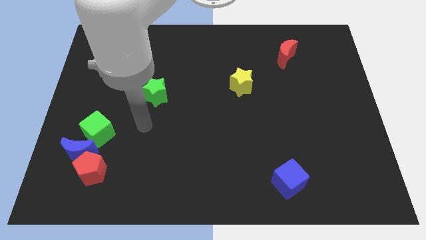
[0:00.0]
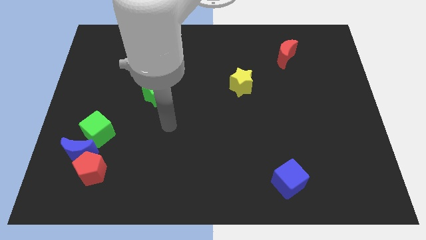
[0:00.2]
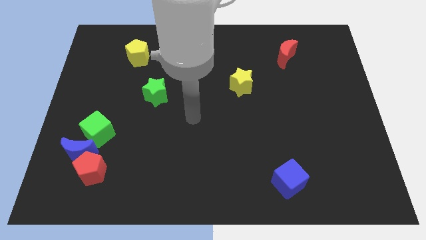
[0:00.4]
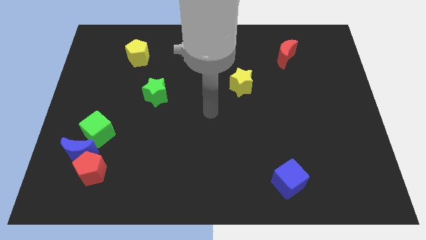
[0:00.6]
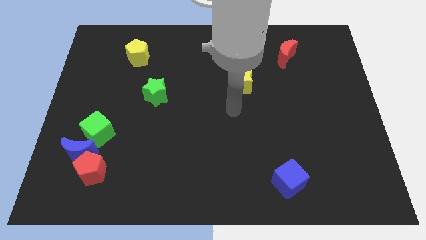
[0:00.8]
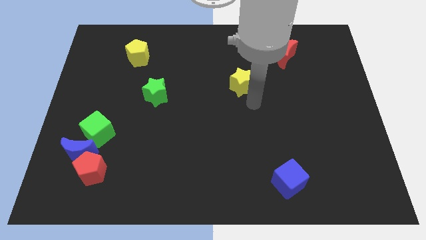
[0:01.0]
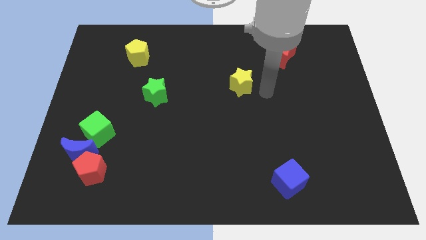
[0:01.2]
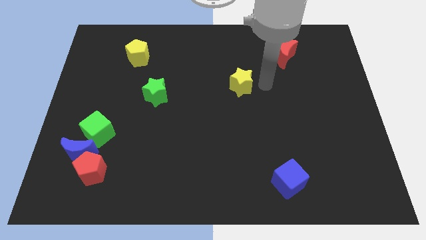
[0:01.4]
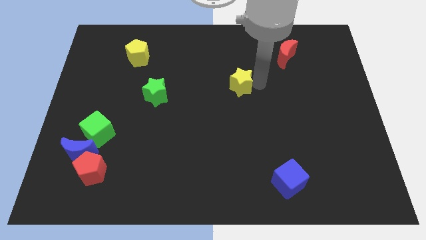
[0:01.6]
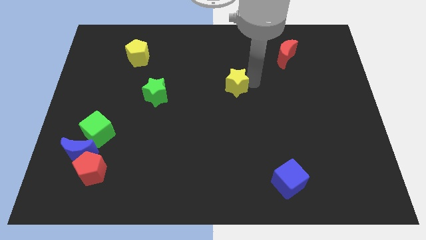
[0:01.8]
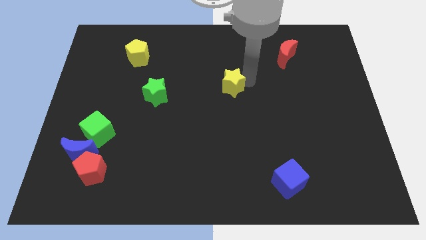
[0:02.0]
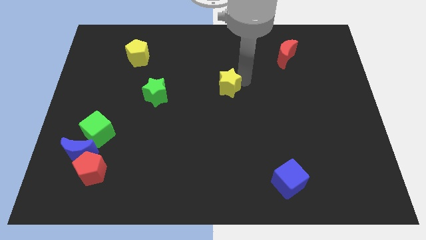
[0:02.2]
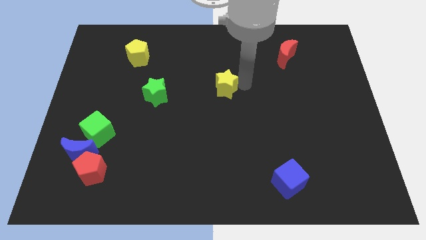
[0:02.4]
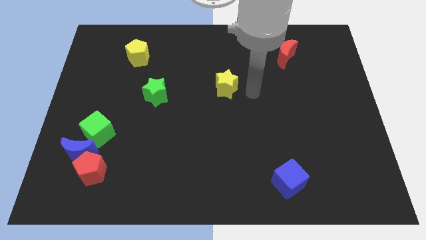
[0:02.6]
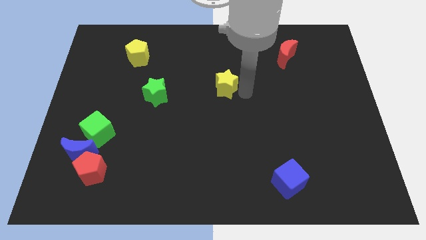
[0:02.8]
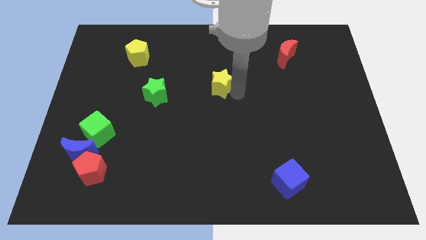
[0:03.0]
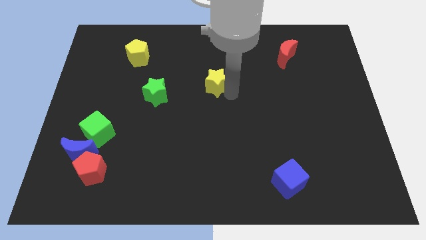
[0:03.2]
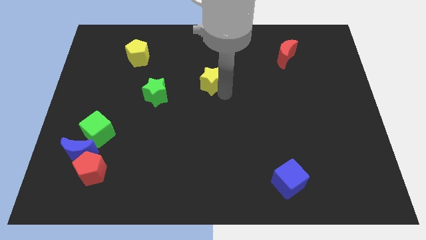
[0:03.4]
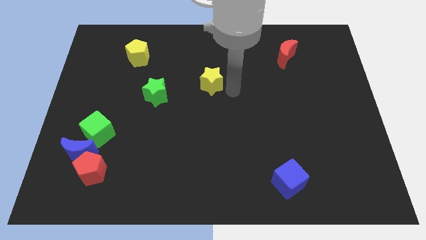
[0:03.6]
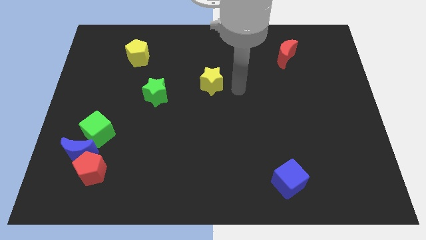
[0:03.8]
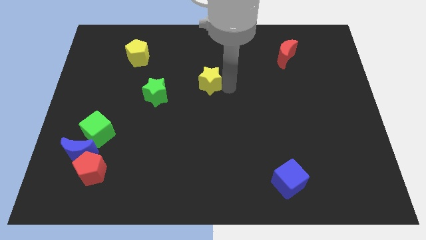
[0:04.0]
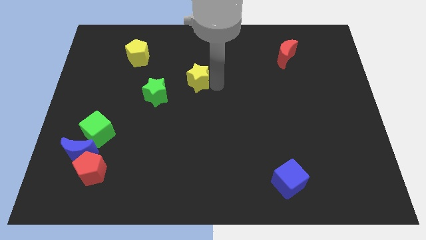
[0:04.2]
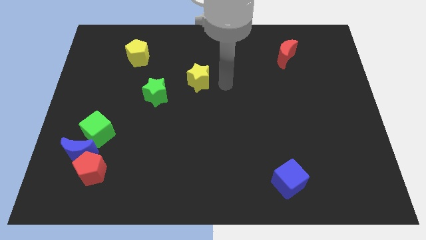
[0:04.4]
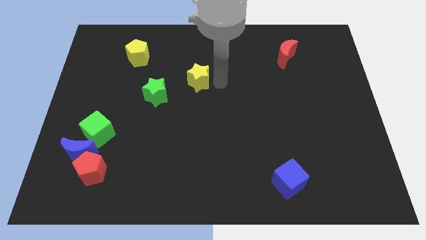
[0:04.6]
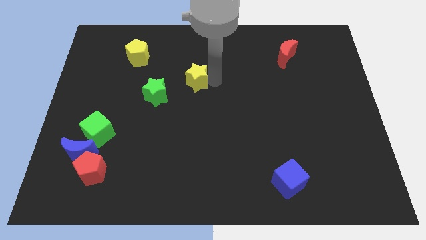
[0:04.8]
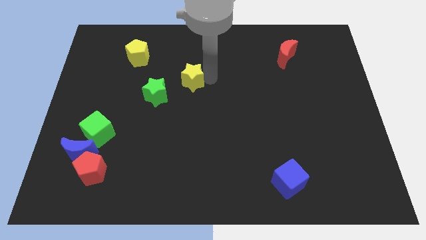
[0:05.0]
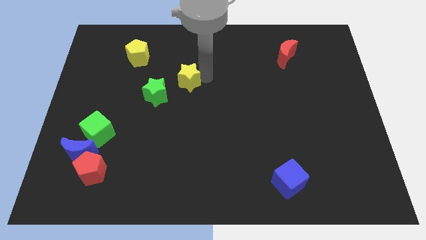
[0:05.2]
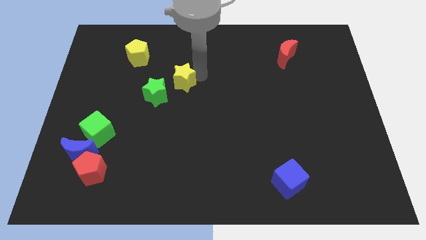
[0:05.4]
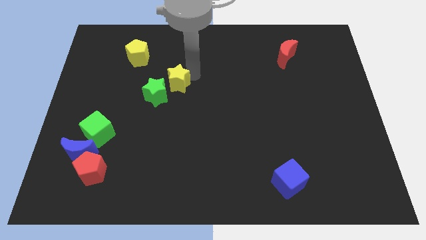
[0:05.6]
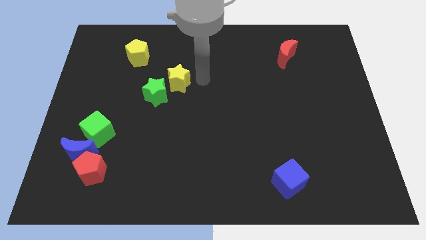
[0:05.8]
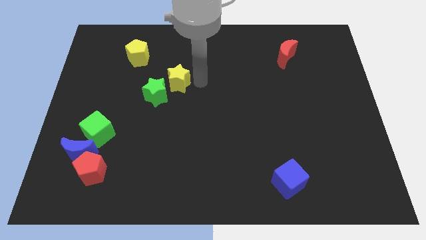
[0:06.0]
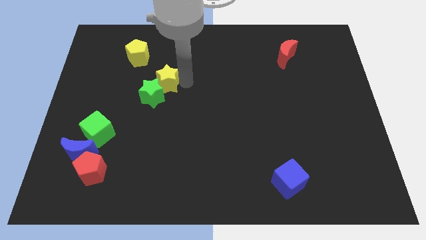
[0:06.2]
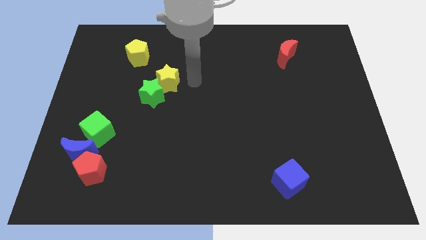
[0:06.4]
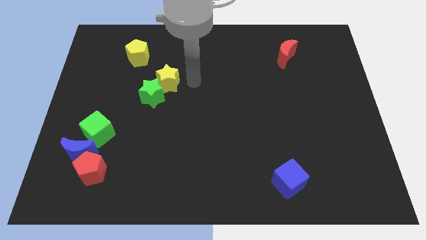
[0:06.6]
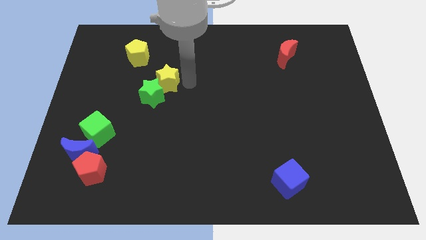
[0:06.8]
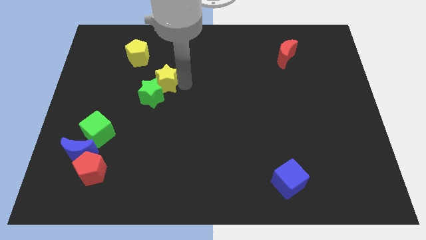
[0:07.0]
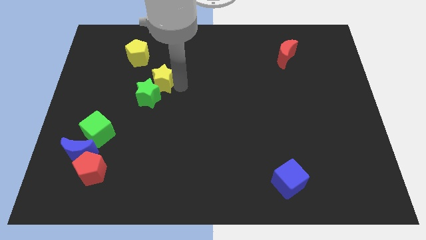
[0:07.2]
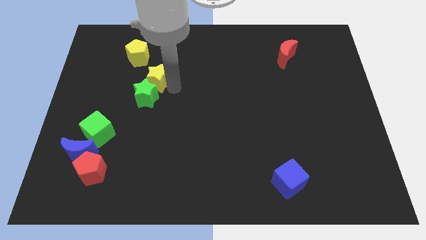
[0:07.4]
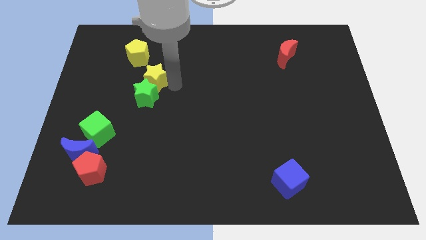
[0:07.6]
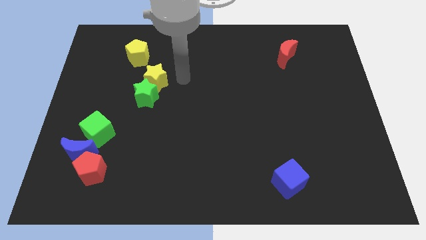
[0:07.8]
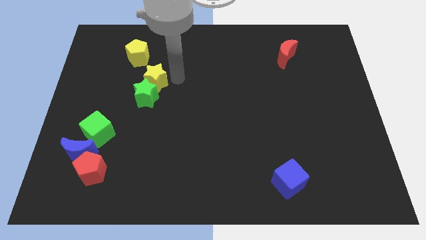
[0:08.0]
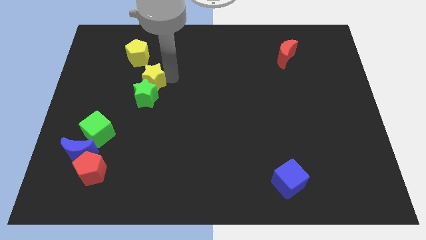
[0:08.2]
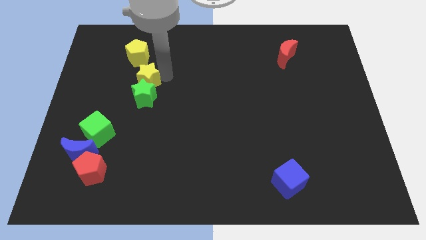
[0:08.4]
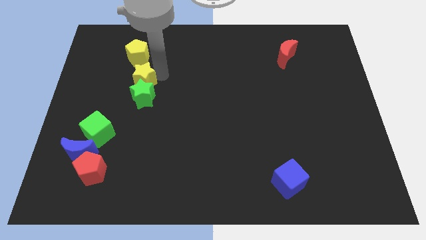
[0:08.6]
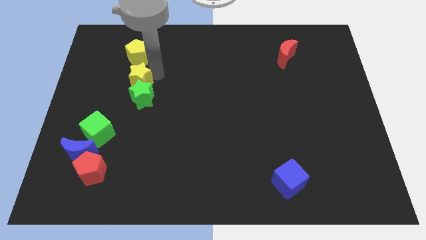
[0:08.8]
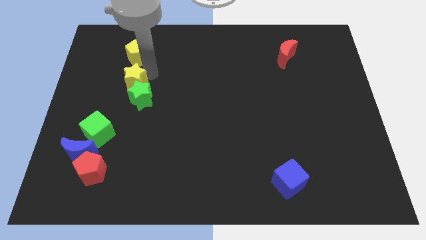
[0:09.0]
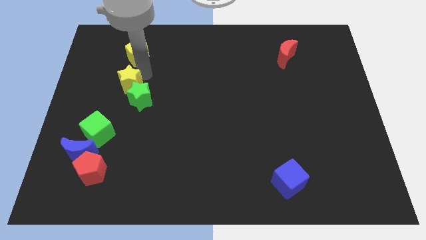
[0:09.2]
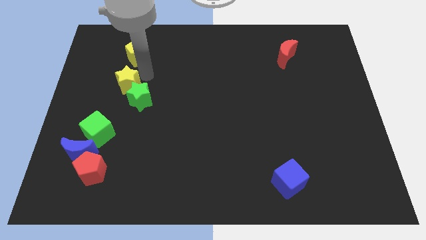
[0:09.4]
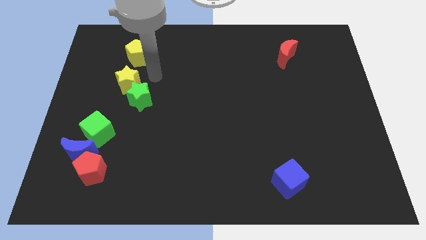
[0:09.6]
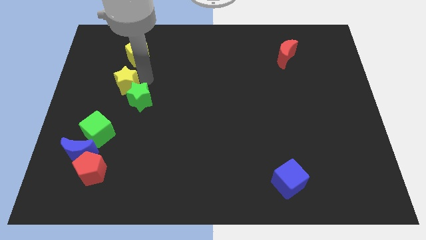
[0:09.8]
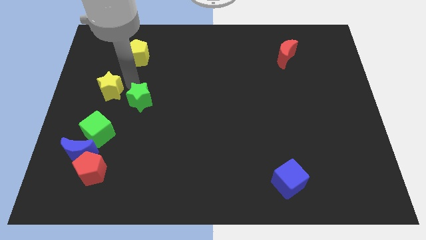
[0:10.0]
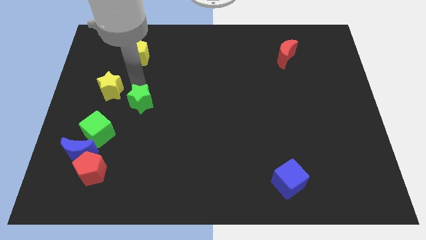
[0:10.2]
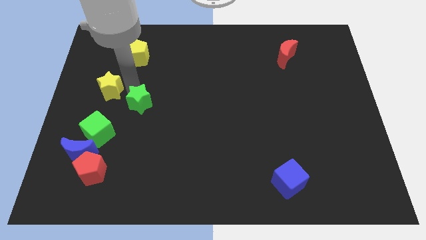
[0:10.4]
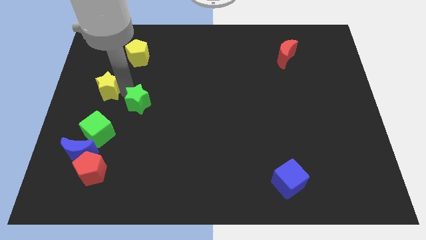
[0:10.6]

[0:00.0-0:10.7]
slide the yellow star to the center left

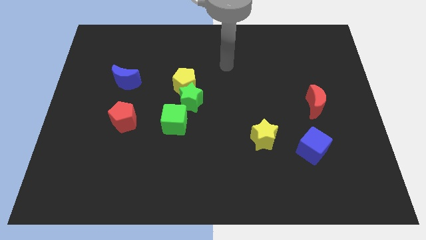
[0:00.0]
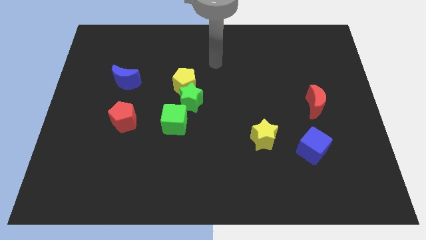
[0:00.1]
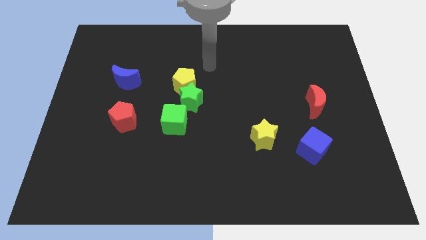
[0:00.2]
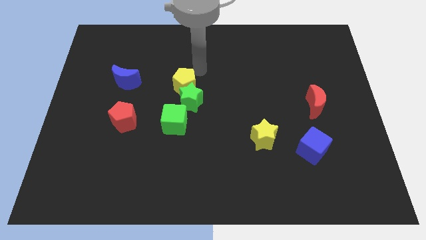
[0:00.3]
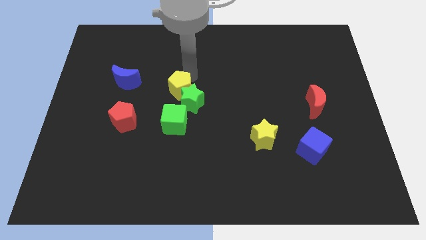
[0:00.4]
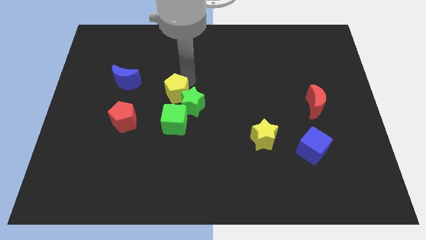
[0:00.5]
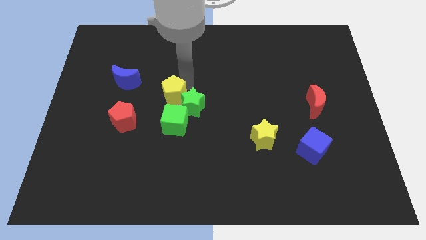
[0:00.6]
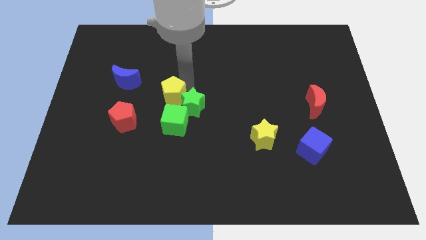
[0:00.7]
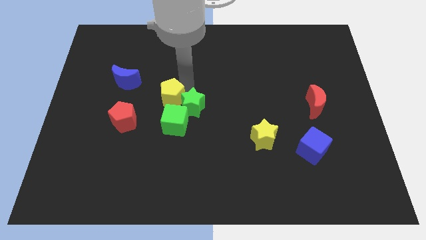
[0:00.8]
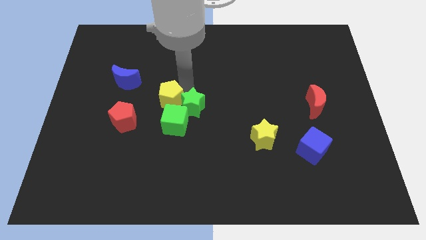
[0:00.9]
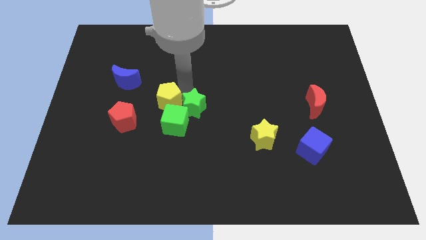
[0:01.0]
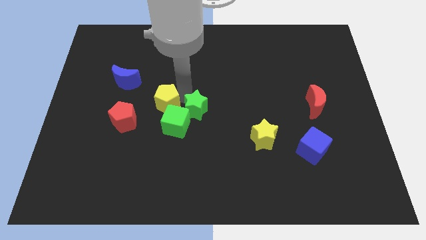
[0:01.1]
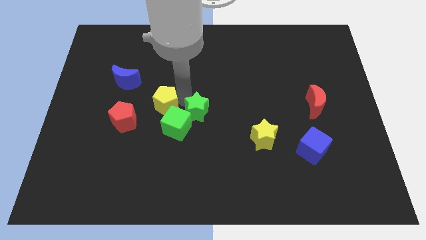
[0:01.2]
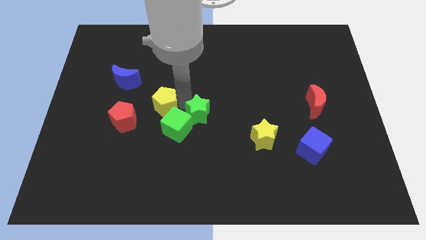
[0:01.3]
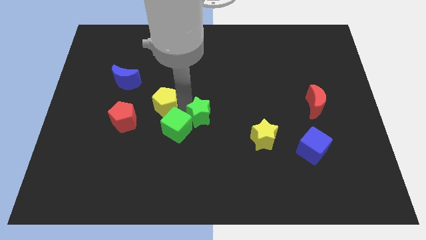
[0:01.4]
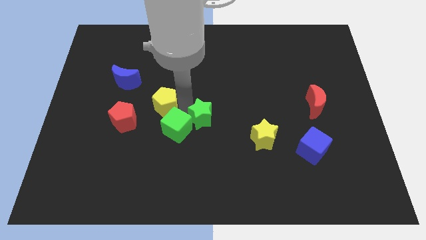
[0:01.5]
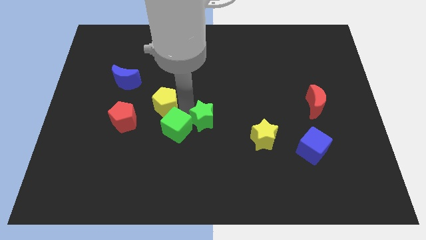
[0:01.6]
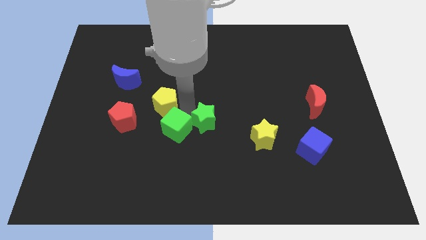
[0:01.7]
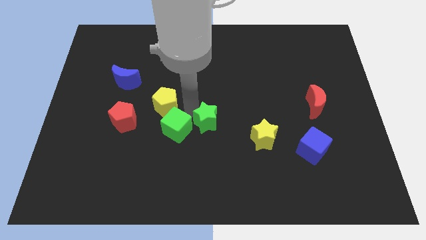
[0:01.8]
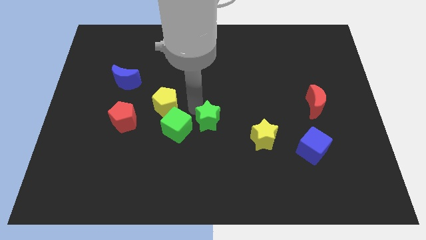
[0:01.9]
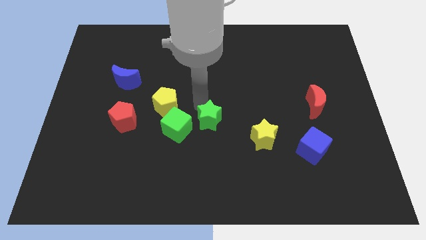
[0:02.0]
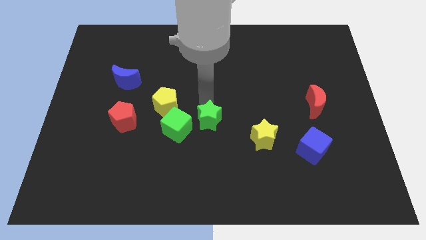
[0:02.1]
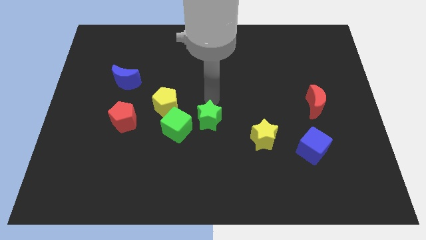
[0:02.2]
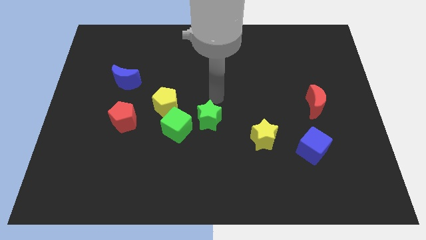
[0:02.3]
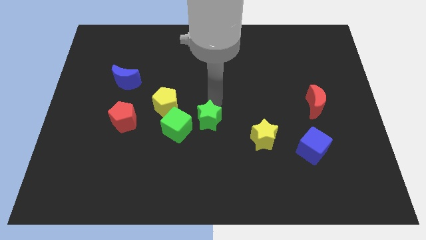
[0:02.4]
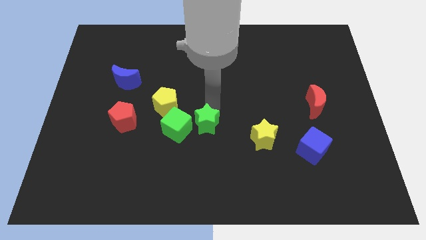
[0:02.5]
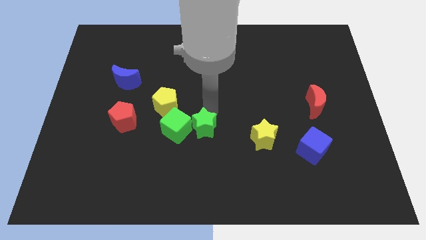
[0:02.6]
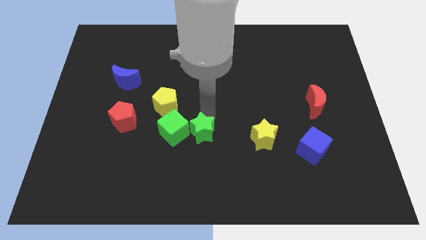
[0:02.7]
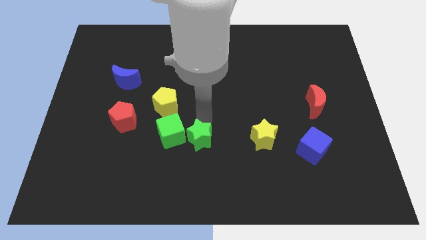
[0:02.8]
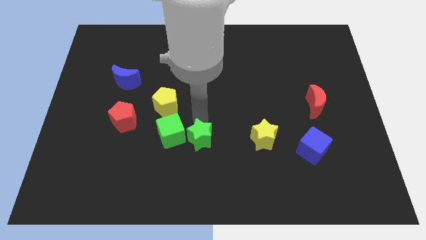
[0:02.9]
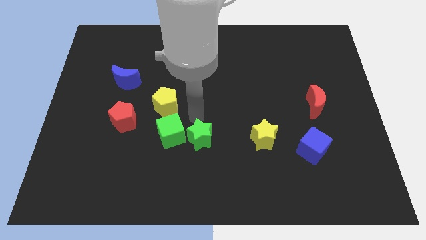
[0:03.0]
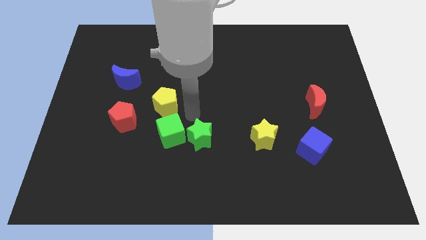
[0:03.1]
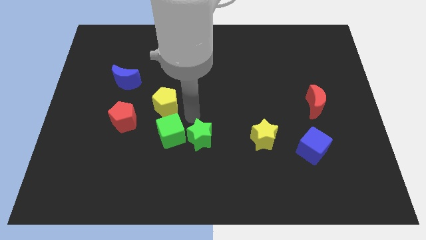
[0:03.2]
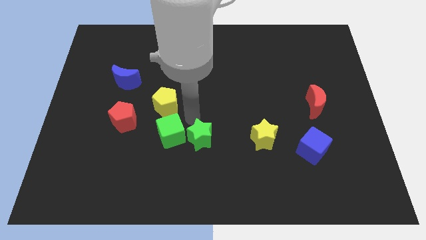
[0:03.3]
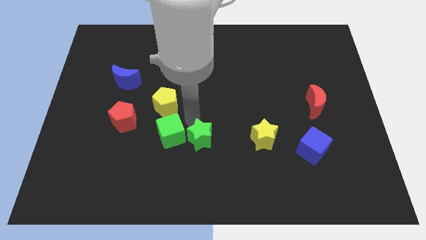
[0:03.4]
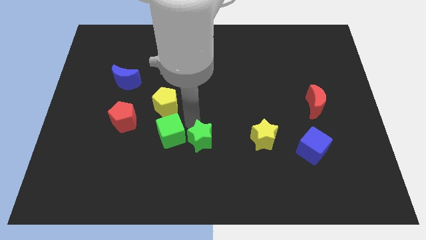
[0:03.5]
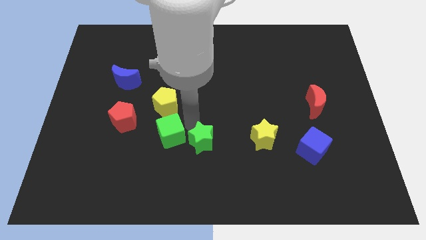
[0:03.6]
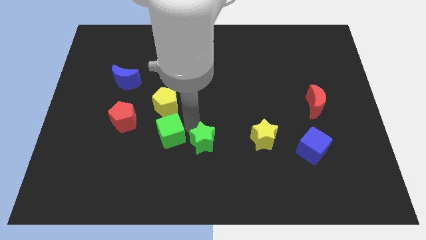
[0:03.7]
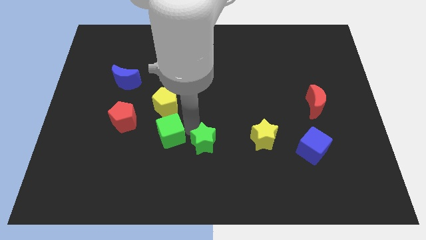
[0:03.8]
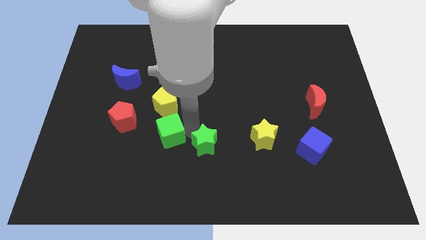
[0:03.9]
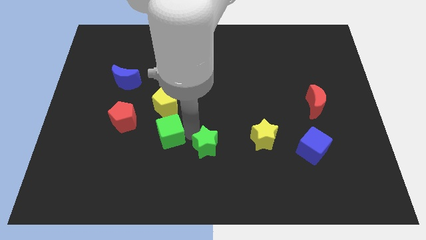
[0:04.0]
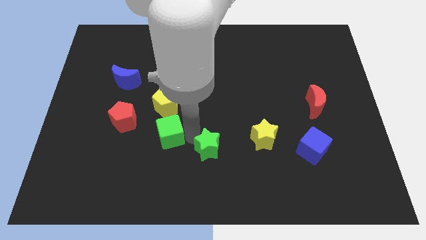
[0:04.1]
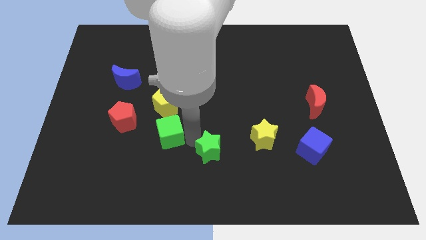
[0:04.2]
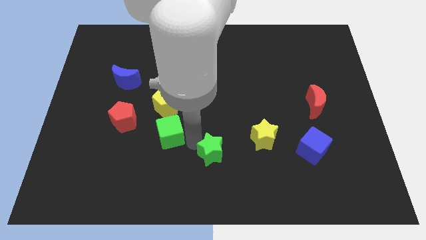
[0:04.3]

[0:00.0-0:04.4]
slide the green star to the bottom side
